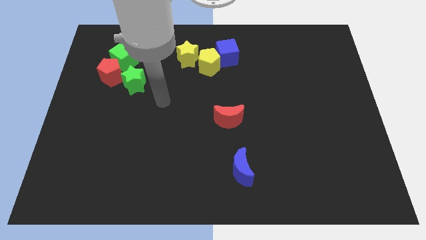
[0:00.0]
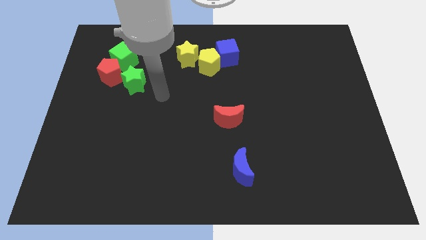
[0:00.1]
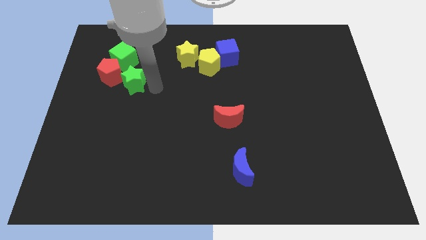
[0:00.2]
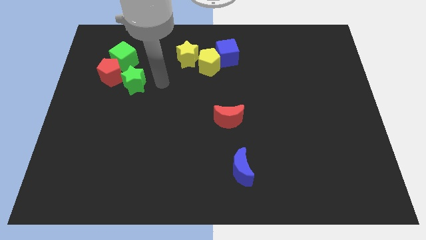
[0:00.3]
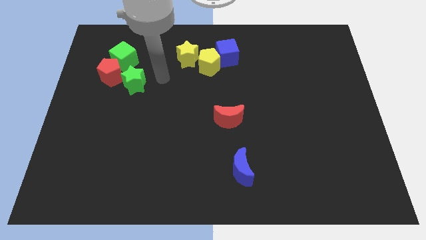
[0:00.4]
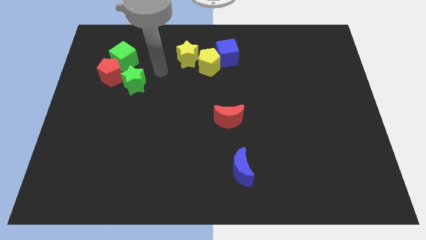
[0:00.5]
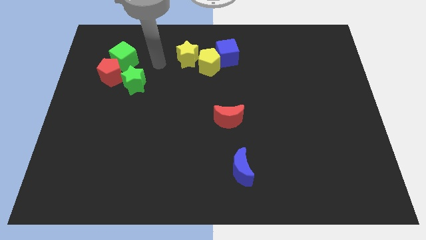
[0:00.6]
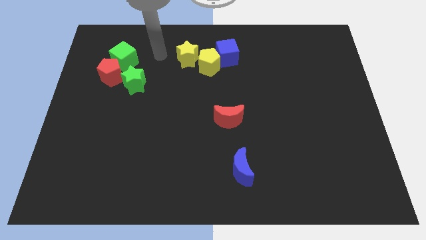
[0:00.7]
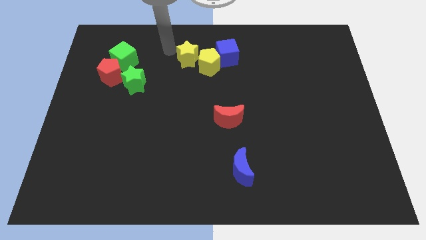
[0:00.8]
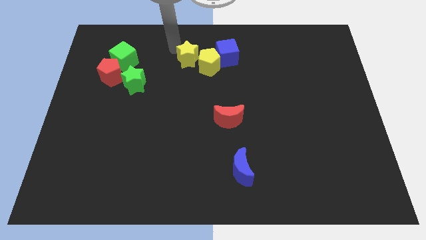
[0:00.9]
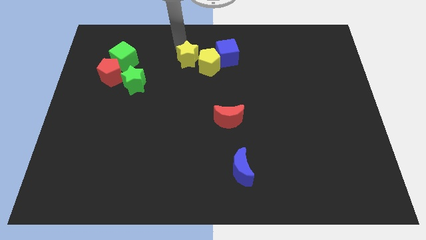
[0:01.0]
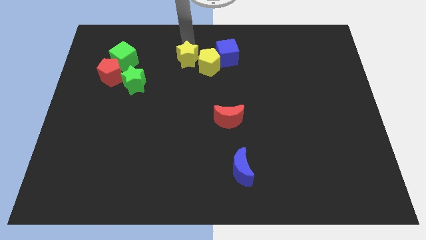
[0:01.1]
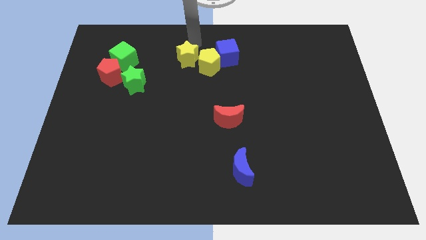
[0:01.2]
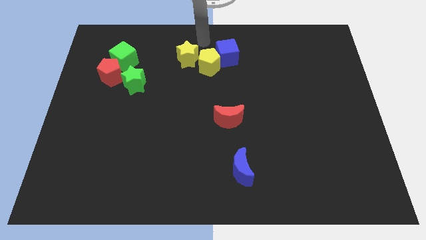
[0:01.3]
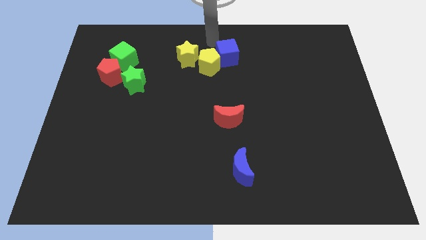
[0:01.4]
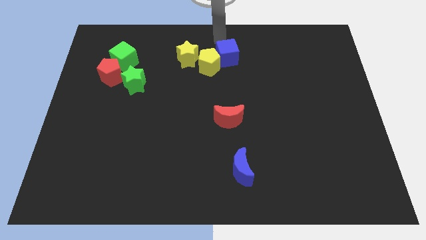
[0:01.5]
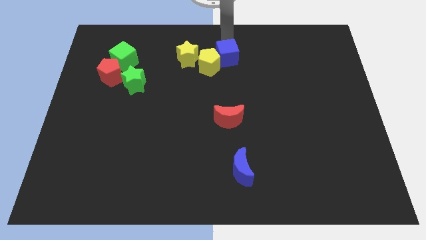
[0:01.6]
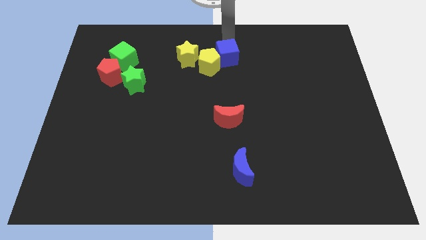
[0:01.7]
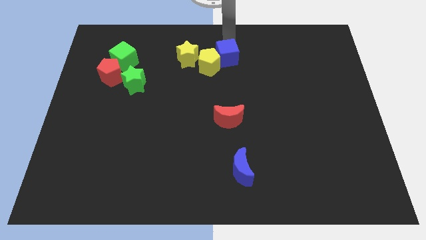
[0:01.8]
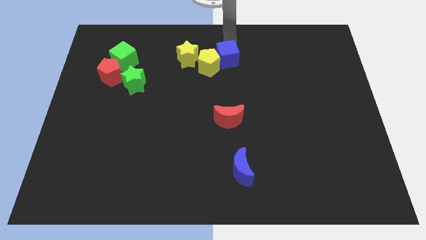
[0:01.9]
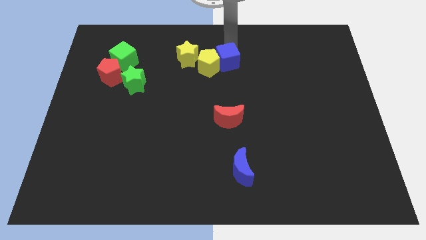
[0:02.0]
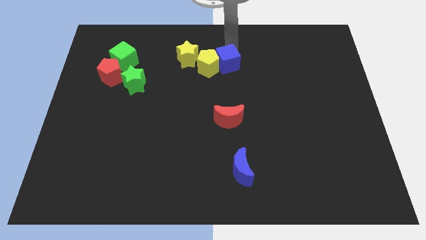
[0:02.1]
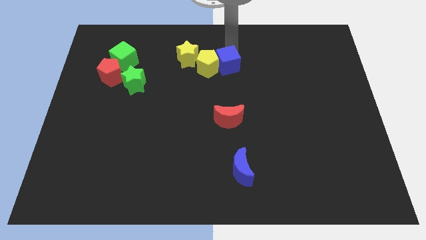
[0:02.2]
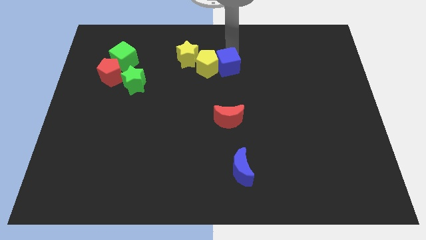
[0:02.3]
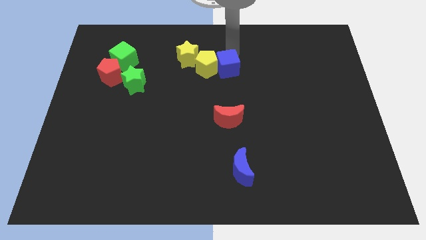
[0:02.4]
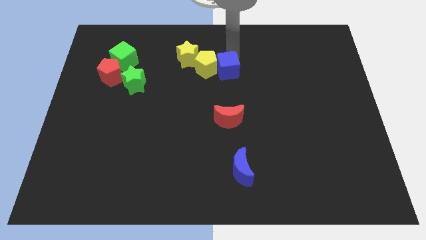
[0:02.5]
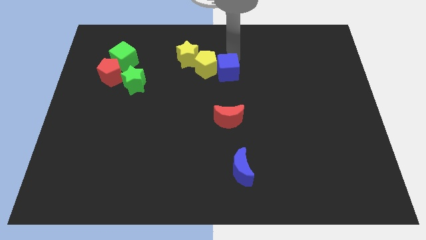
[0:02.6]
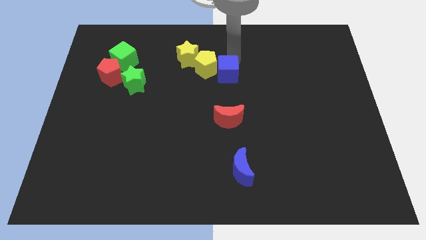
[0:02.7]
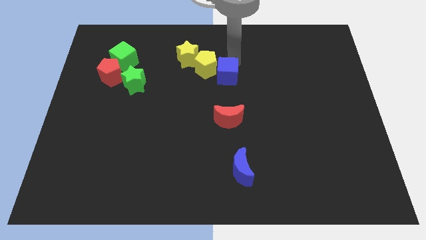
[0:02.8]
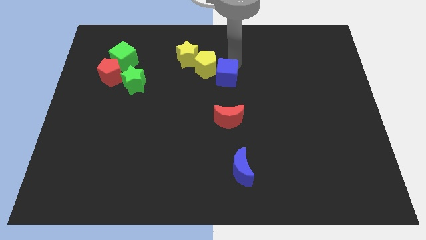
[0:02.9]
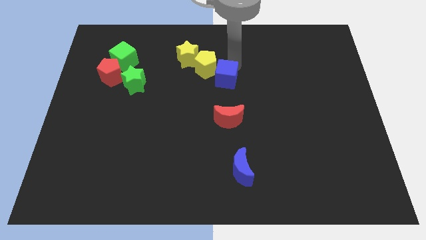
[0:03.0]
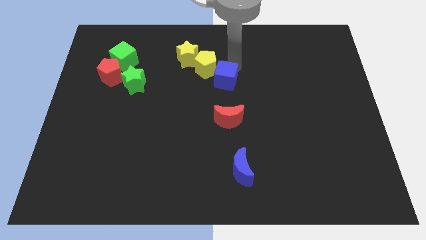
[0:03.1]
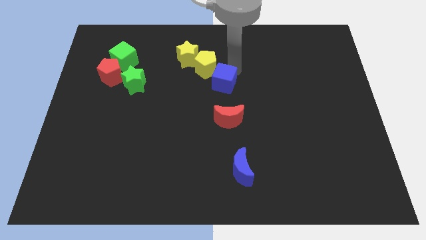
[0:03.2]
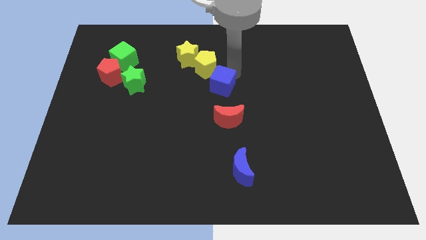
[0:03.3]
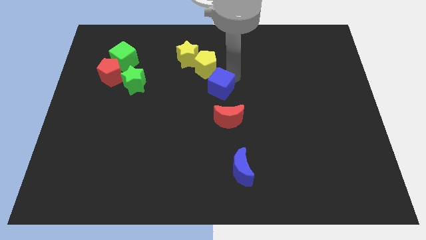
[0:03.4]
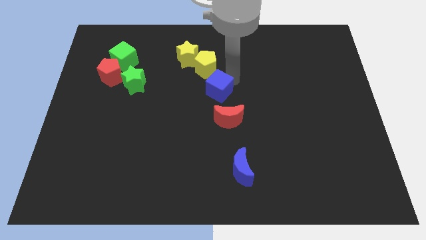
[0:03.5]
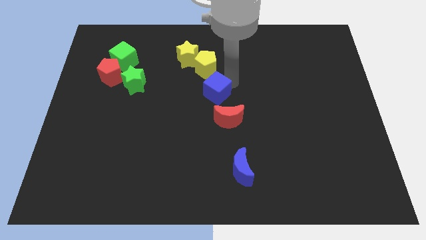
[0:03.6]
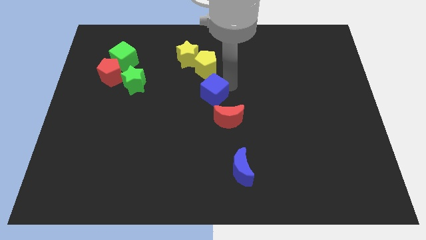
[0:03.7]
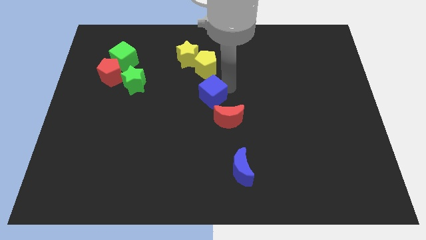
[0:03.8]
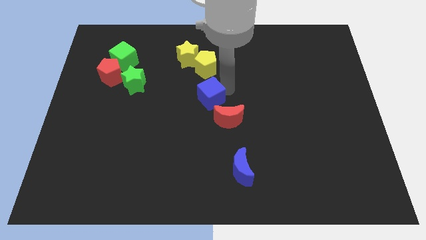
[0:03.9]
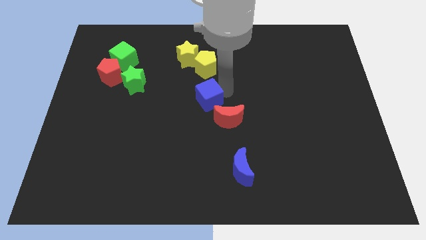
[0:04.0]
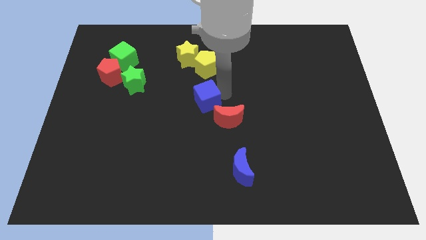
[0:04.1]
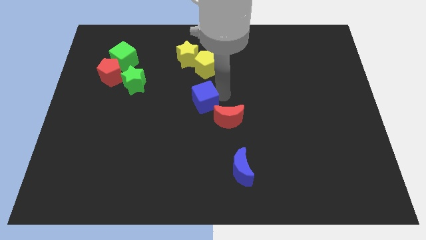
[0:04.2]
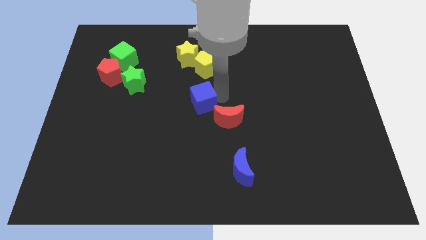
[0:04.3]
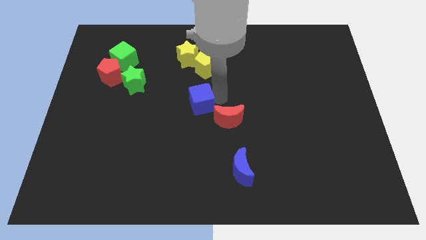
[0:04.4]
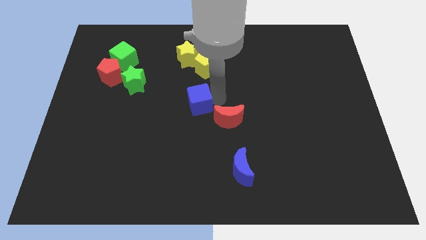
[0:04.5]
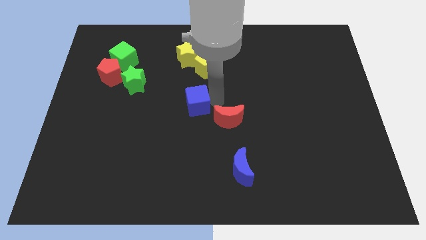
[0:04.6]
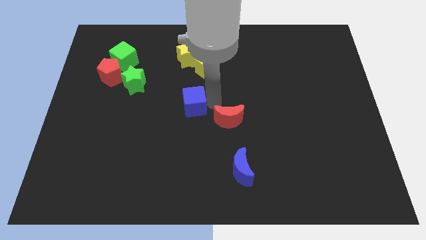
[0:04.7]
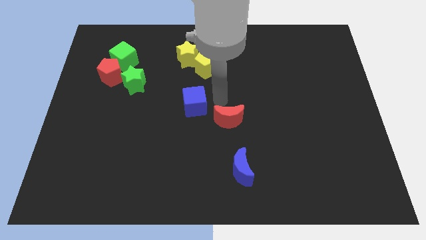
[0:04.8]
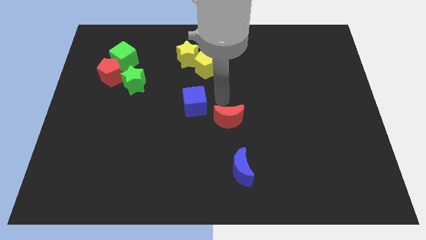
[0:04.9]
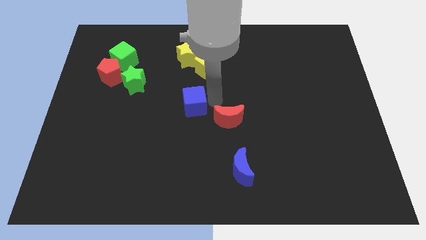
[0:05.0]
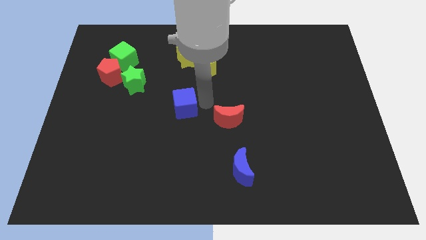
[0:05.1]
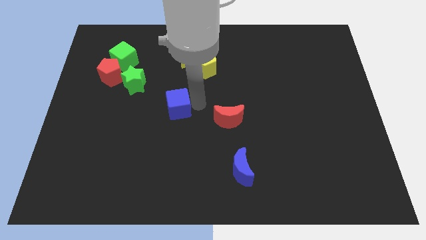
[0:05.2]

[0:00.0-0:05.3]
move the blue cube diagonally downwards and left

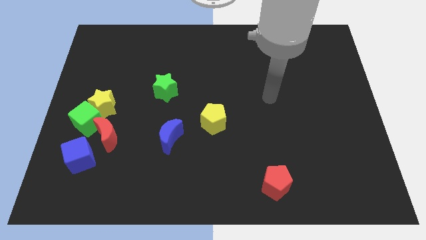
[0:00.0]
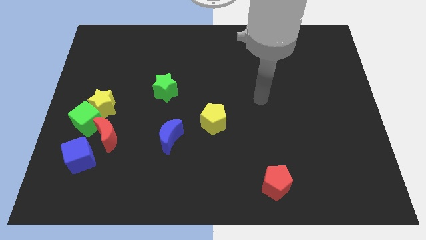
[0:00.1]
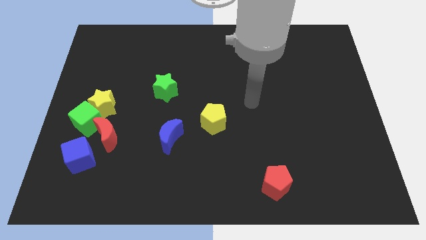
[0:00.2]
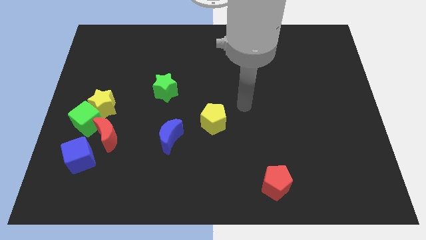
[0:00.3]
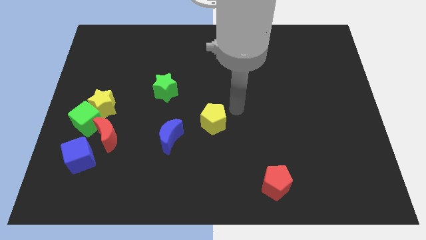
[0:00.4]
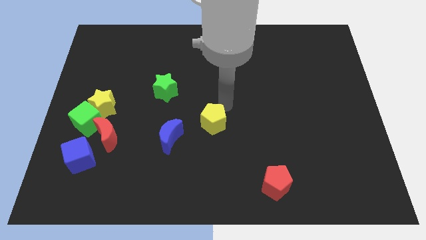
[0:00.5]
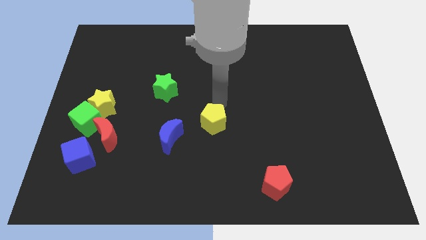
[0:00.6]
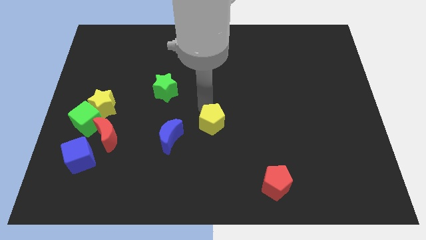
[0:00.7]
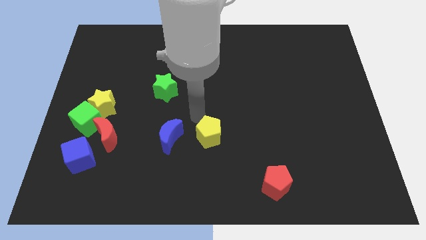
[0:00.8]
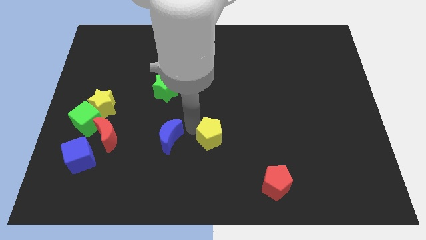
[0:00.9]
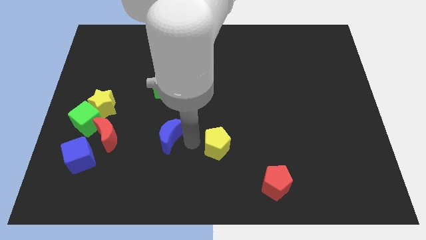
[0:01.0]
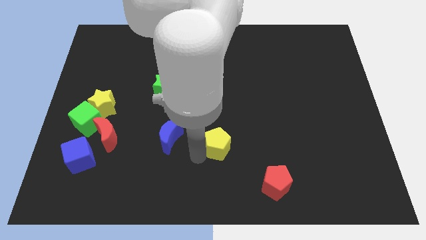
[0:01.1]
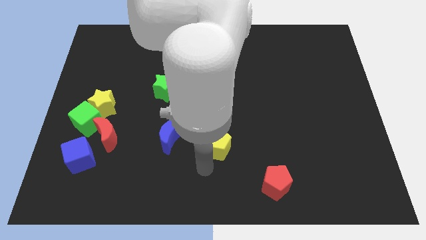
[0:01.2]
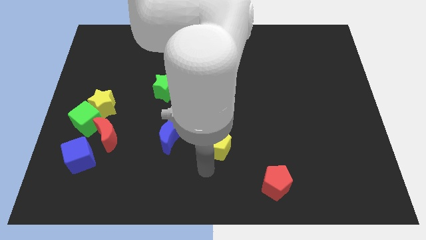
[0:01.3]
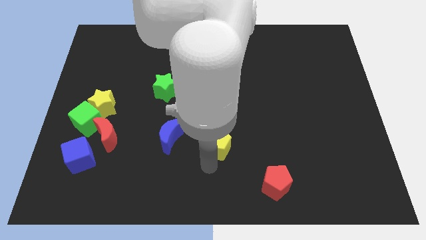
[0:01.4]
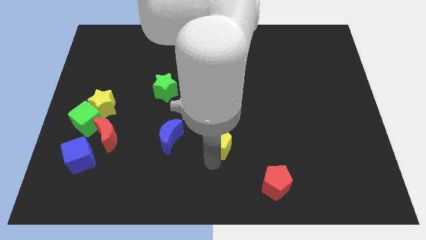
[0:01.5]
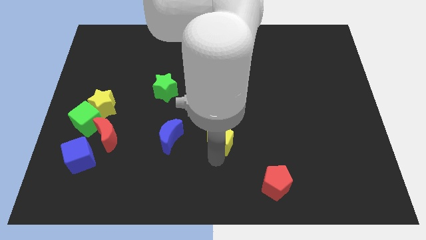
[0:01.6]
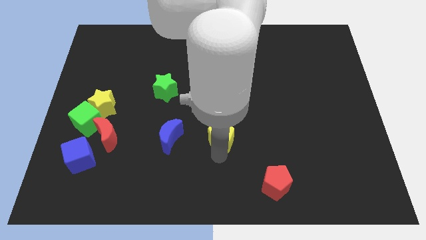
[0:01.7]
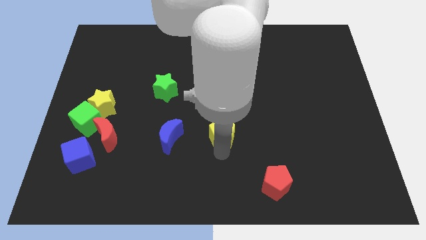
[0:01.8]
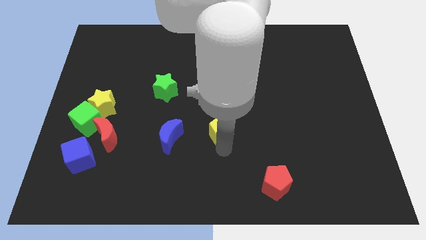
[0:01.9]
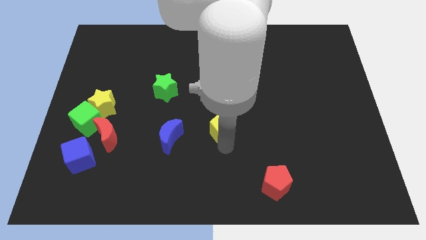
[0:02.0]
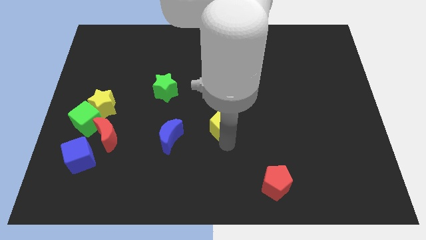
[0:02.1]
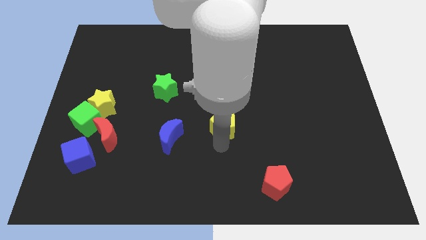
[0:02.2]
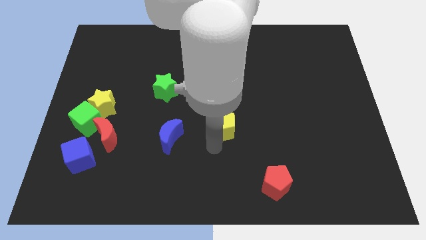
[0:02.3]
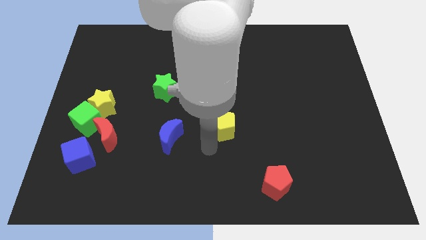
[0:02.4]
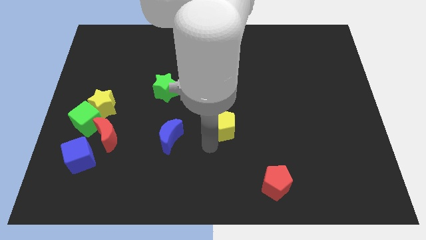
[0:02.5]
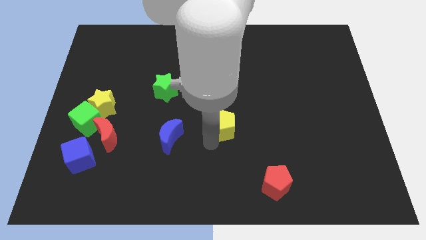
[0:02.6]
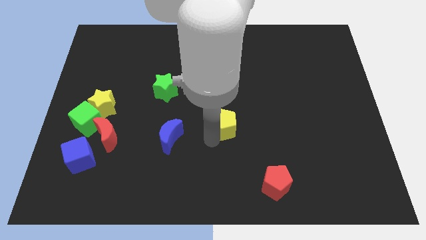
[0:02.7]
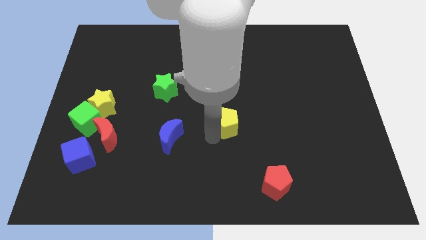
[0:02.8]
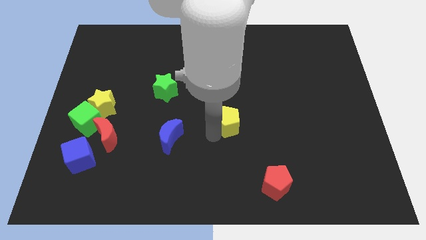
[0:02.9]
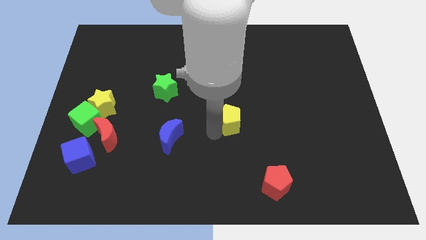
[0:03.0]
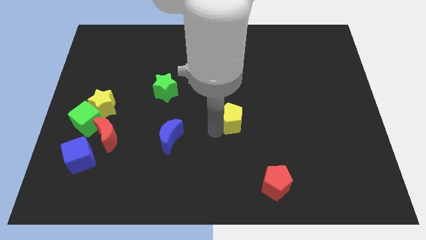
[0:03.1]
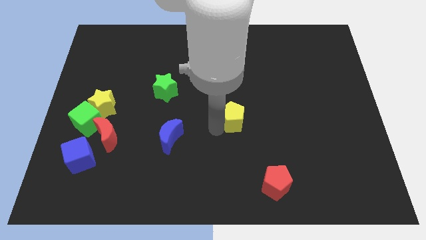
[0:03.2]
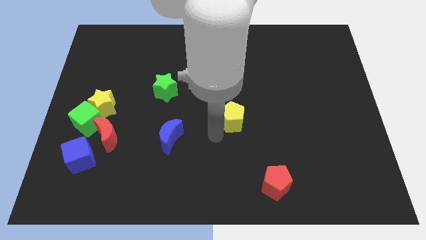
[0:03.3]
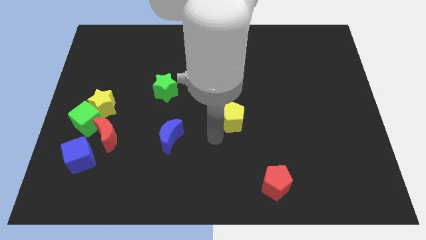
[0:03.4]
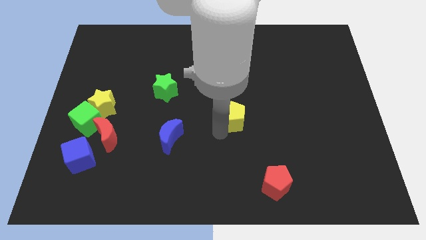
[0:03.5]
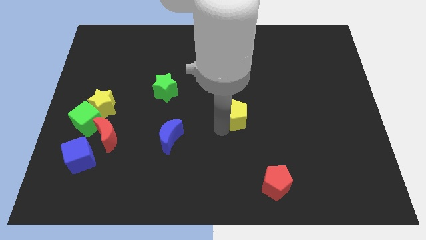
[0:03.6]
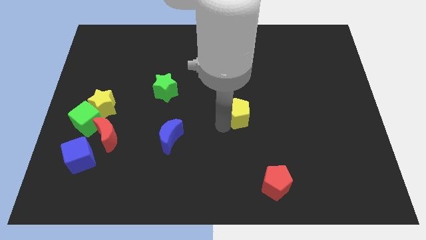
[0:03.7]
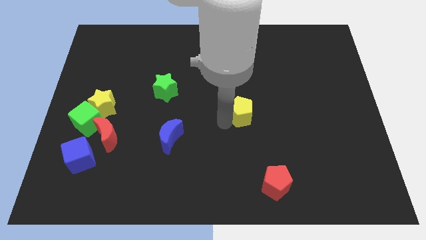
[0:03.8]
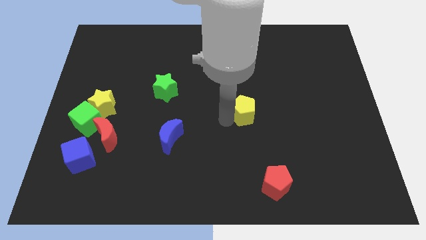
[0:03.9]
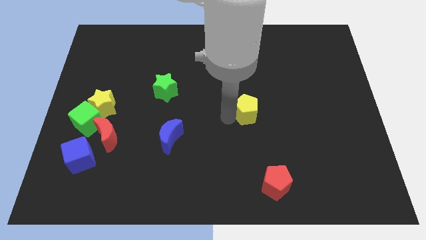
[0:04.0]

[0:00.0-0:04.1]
slightly slide the yellow pentagon upwards and then right
